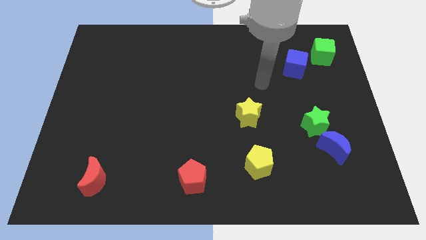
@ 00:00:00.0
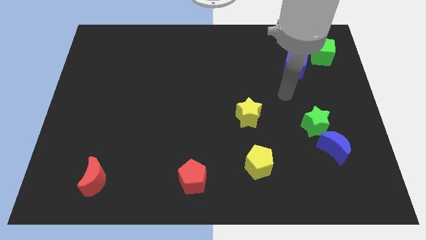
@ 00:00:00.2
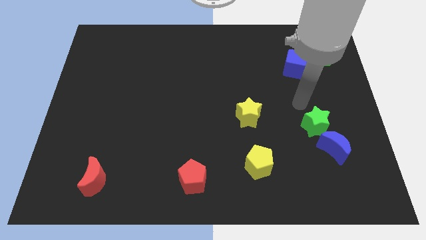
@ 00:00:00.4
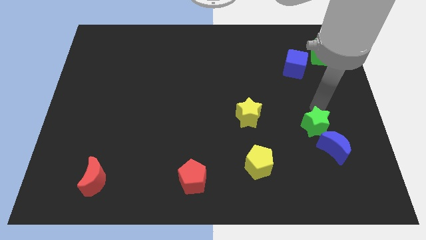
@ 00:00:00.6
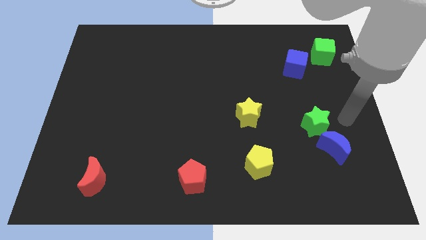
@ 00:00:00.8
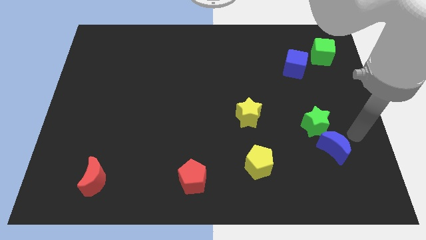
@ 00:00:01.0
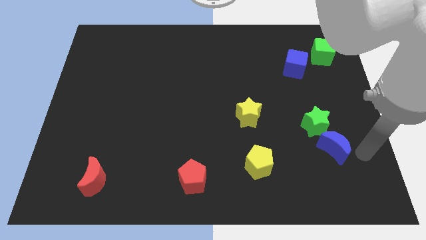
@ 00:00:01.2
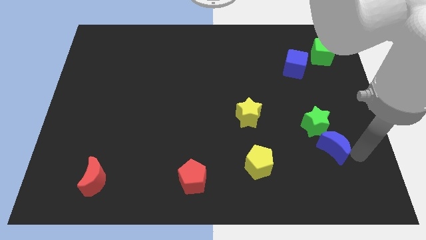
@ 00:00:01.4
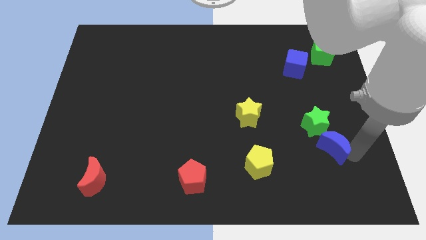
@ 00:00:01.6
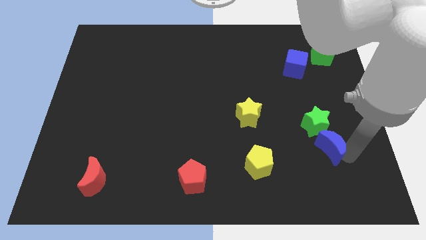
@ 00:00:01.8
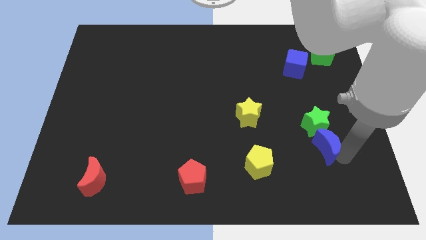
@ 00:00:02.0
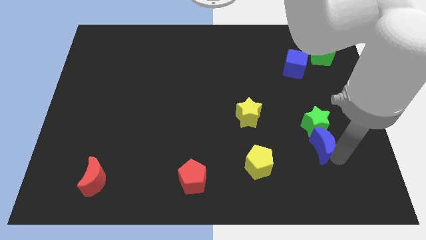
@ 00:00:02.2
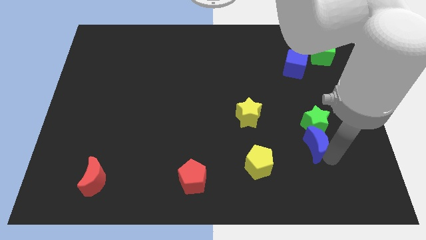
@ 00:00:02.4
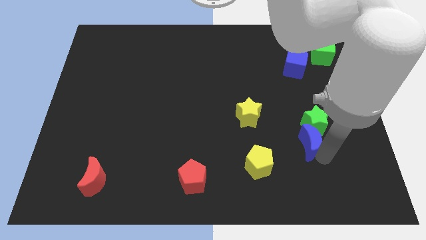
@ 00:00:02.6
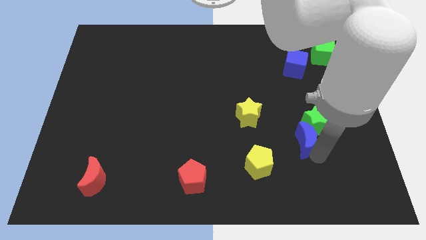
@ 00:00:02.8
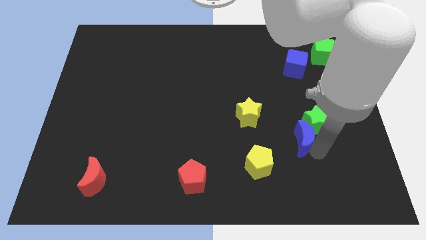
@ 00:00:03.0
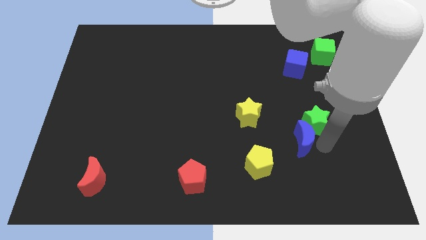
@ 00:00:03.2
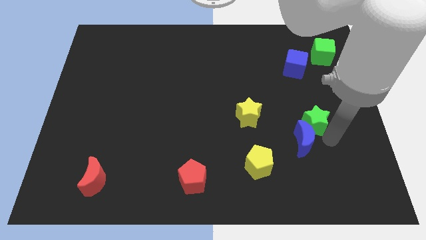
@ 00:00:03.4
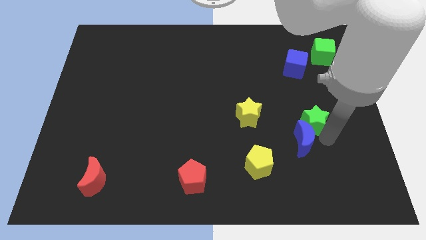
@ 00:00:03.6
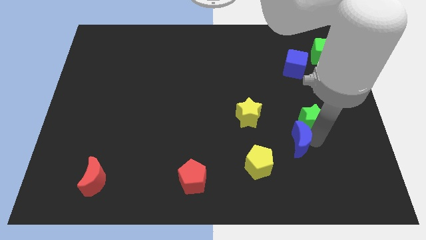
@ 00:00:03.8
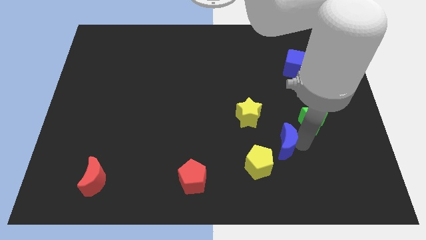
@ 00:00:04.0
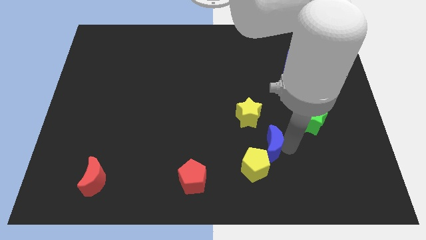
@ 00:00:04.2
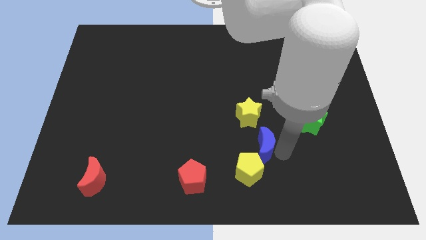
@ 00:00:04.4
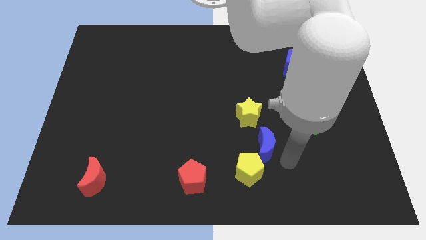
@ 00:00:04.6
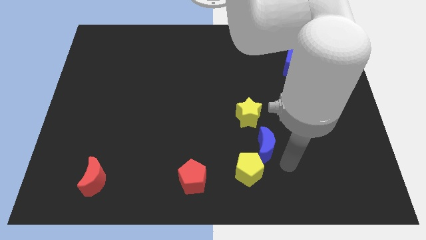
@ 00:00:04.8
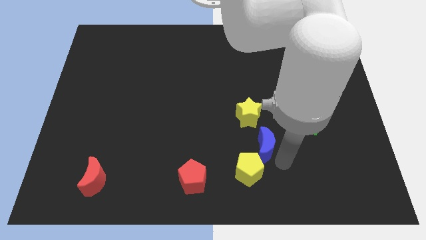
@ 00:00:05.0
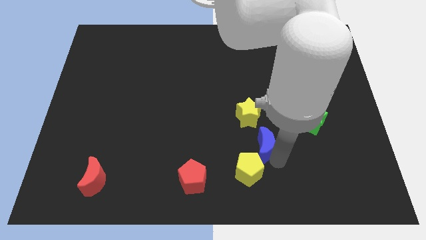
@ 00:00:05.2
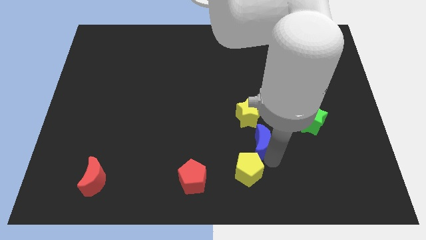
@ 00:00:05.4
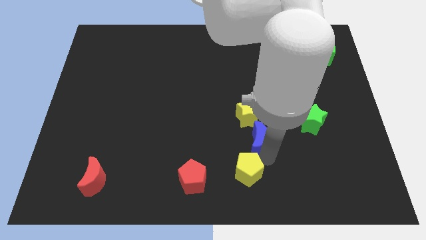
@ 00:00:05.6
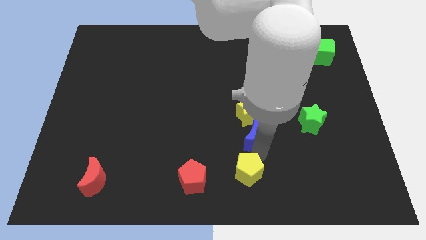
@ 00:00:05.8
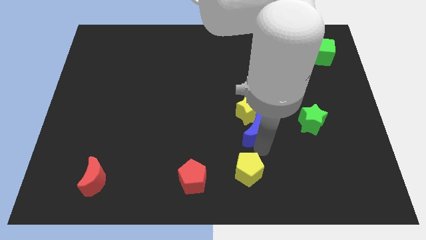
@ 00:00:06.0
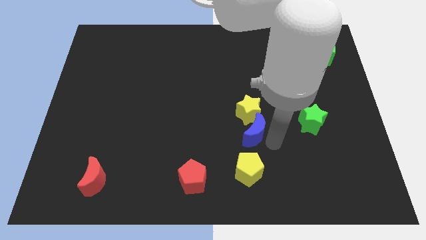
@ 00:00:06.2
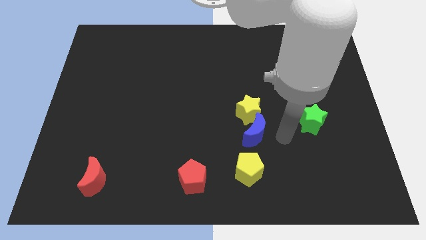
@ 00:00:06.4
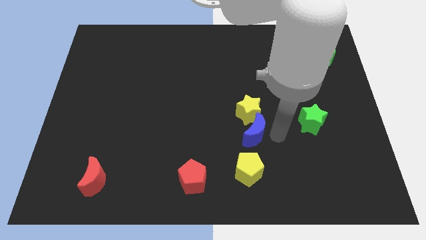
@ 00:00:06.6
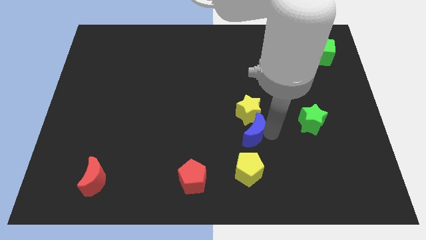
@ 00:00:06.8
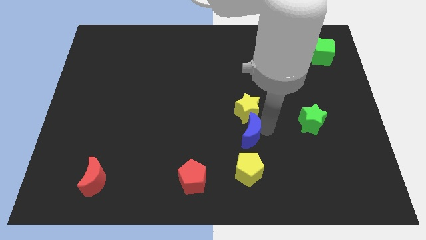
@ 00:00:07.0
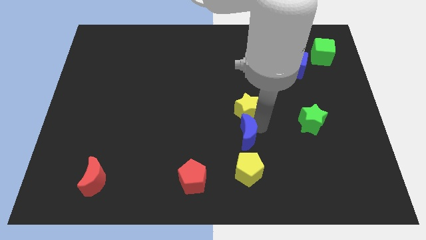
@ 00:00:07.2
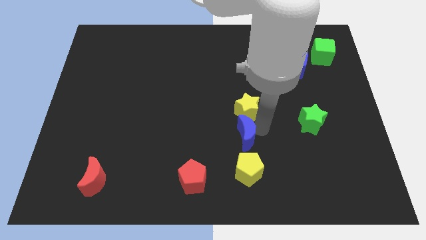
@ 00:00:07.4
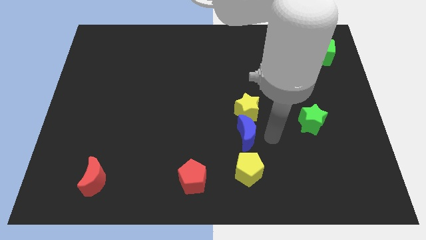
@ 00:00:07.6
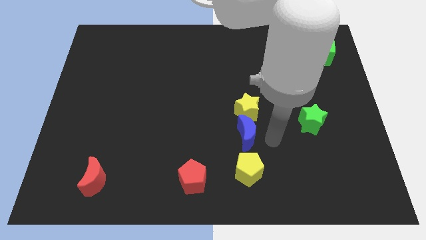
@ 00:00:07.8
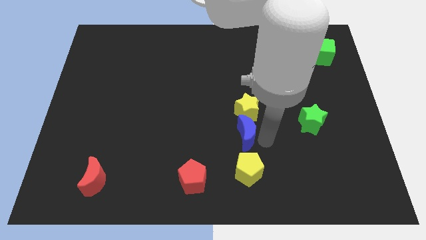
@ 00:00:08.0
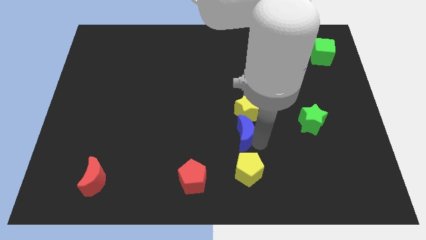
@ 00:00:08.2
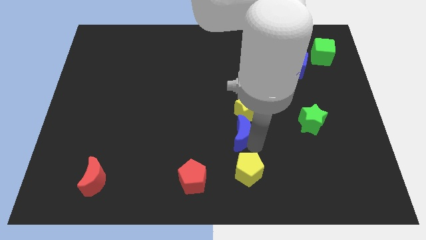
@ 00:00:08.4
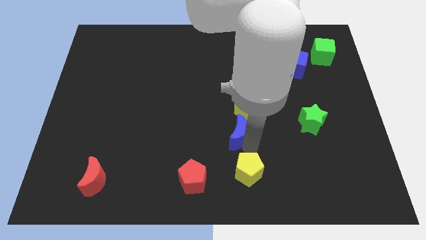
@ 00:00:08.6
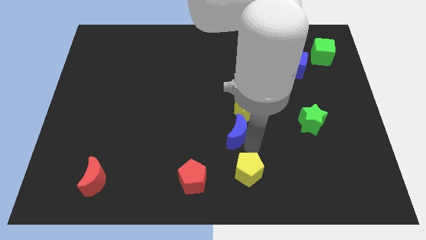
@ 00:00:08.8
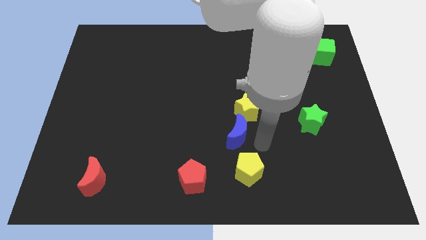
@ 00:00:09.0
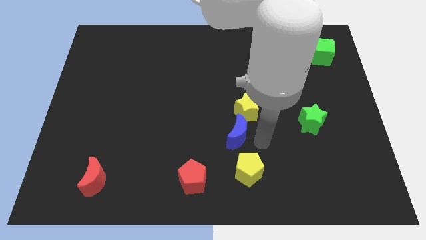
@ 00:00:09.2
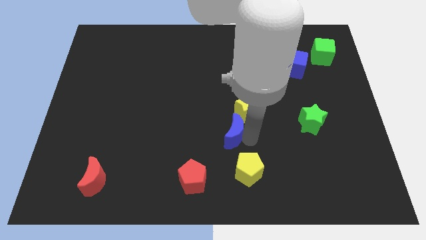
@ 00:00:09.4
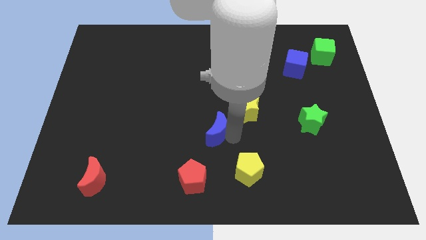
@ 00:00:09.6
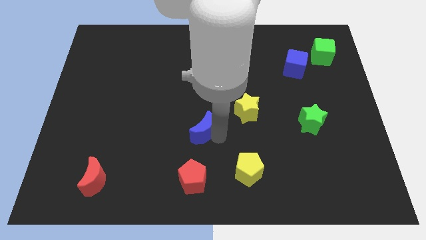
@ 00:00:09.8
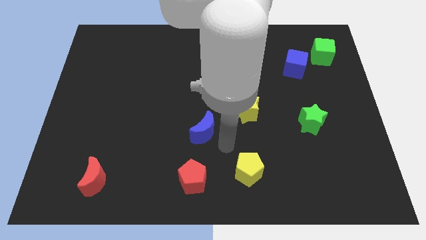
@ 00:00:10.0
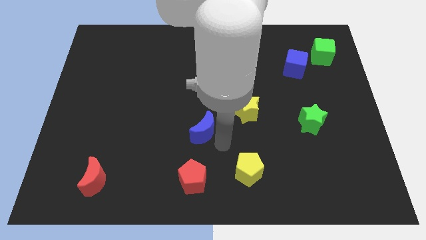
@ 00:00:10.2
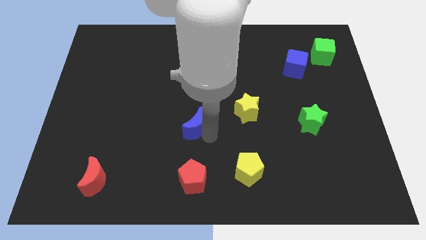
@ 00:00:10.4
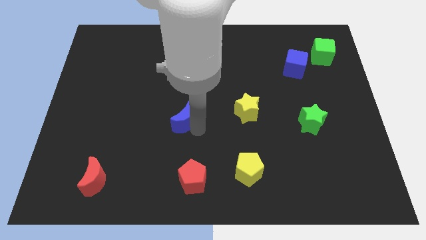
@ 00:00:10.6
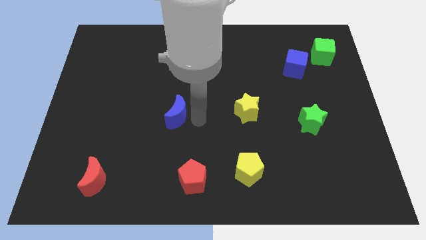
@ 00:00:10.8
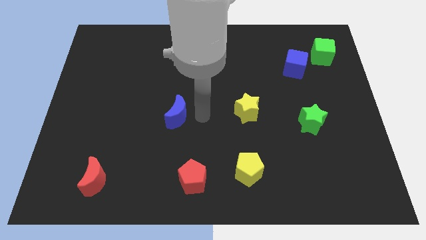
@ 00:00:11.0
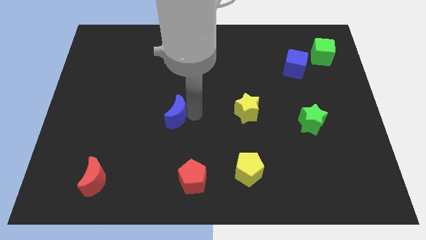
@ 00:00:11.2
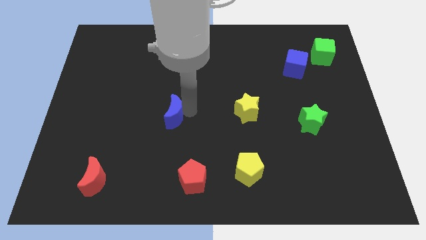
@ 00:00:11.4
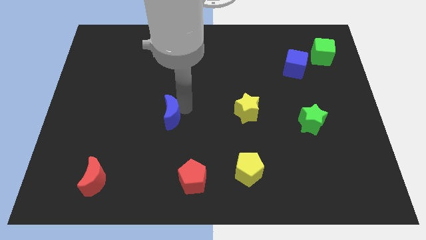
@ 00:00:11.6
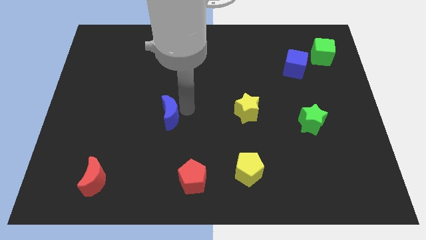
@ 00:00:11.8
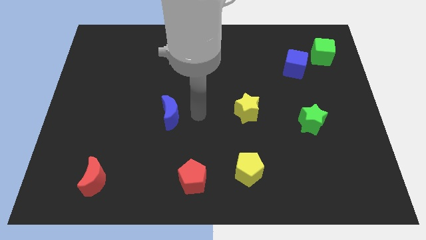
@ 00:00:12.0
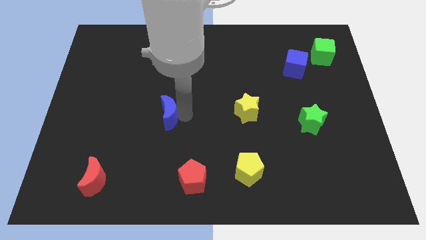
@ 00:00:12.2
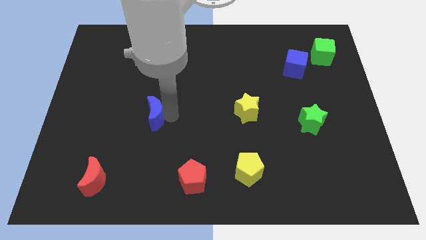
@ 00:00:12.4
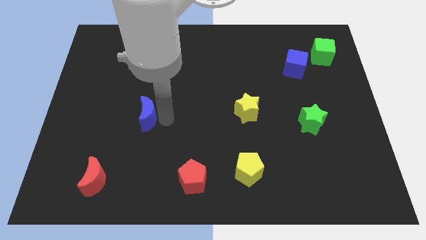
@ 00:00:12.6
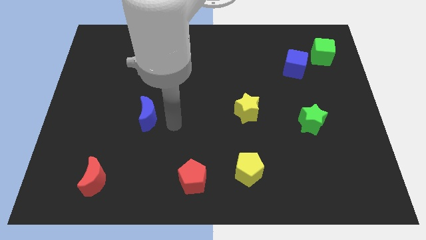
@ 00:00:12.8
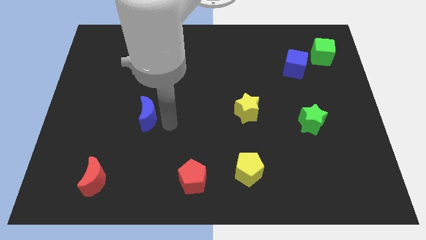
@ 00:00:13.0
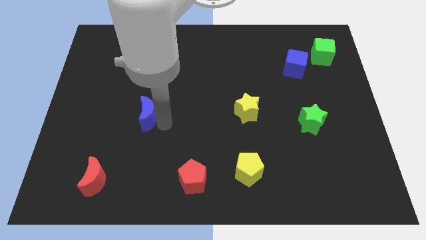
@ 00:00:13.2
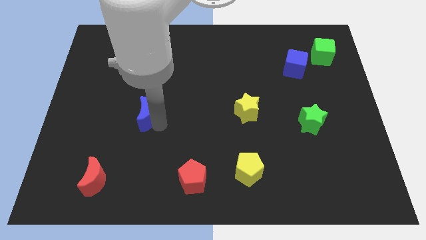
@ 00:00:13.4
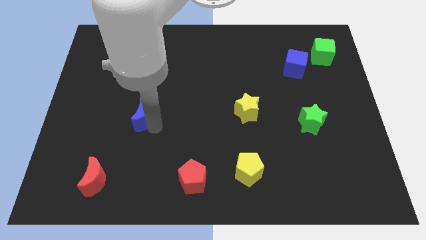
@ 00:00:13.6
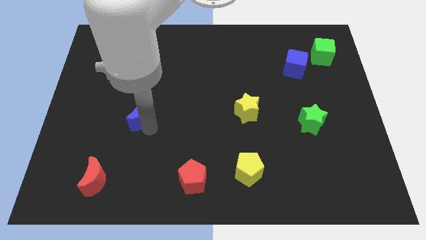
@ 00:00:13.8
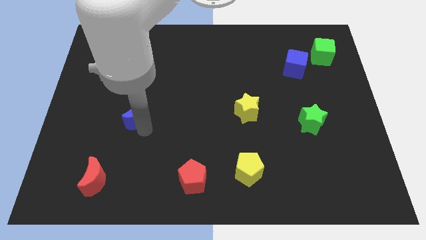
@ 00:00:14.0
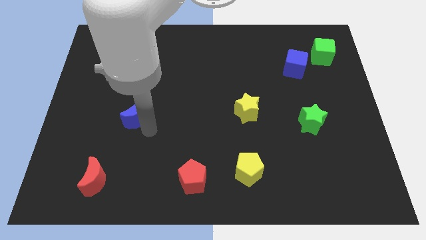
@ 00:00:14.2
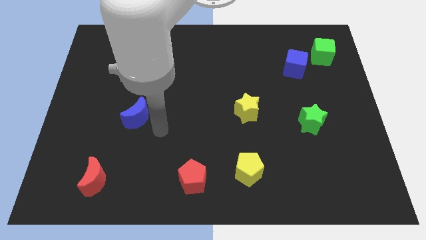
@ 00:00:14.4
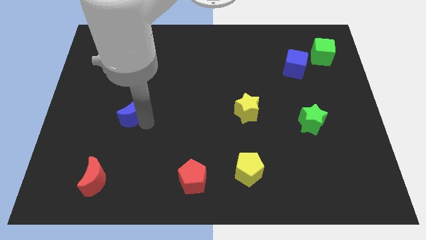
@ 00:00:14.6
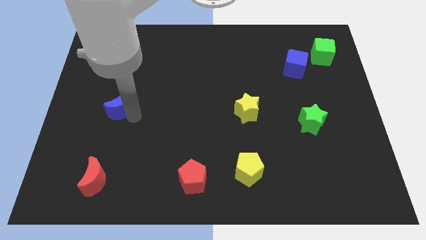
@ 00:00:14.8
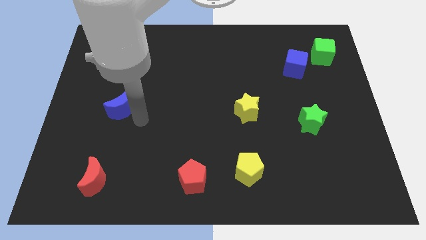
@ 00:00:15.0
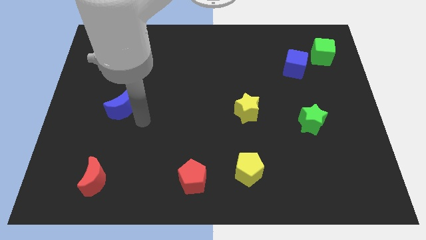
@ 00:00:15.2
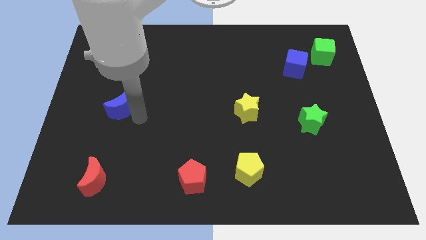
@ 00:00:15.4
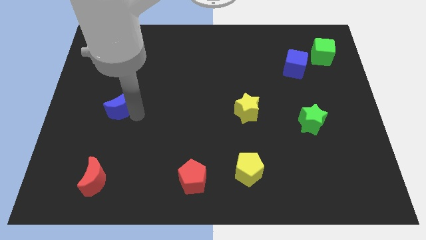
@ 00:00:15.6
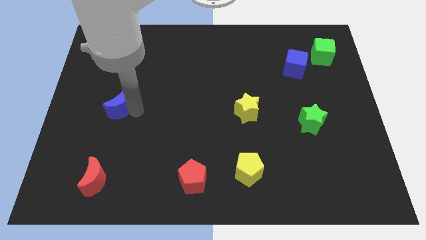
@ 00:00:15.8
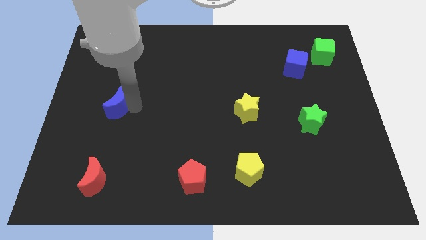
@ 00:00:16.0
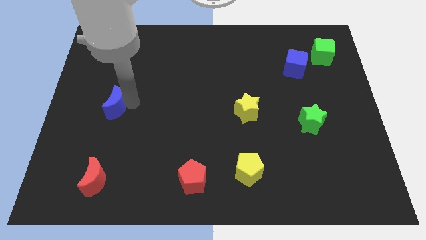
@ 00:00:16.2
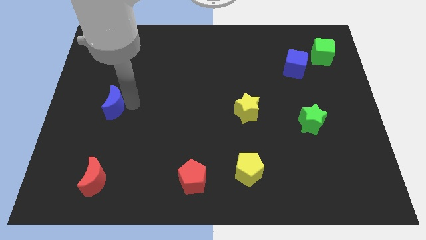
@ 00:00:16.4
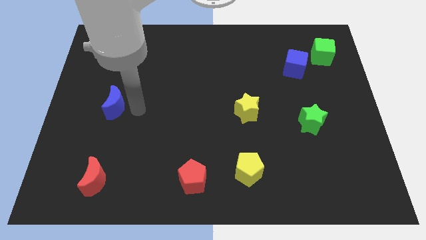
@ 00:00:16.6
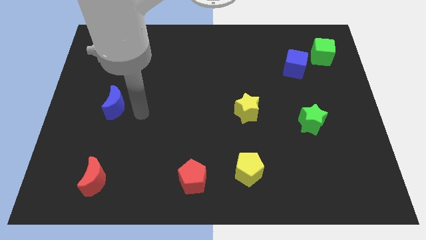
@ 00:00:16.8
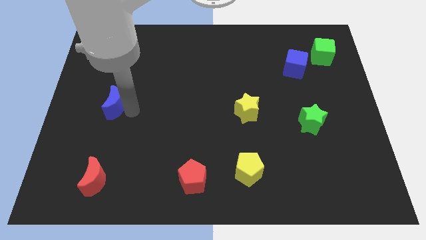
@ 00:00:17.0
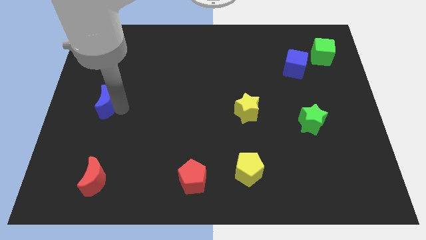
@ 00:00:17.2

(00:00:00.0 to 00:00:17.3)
slide the blue moon to the center left
